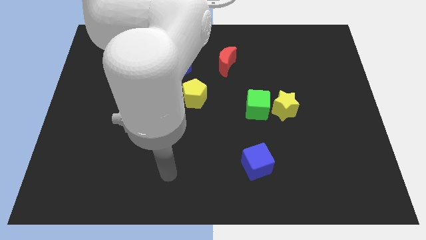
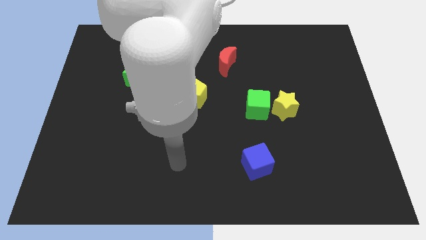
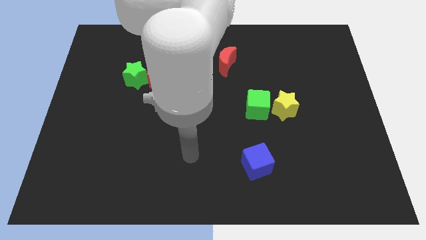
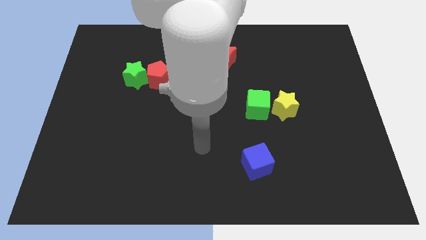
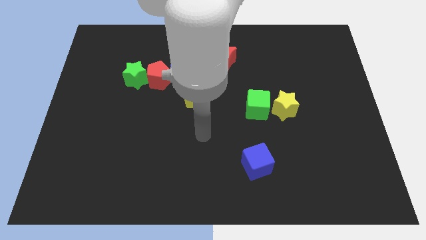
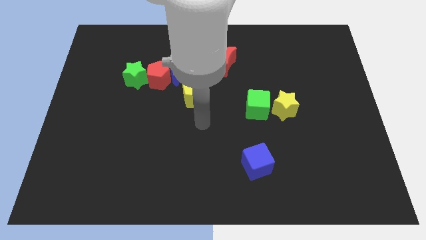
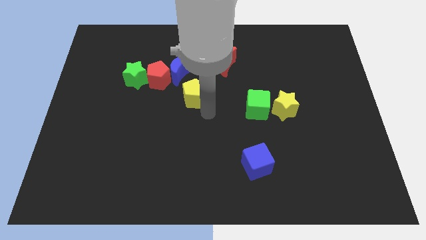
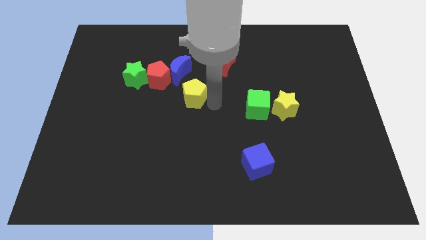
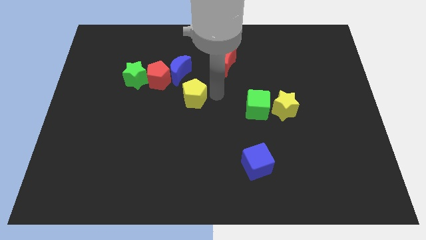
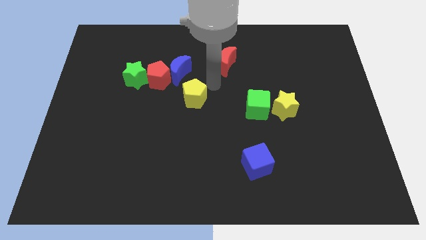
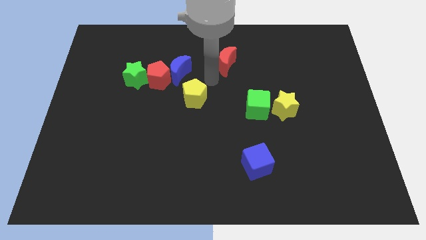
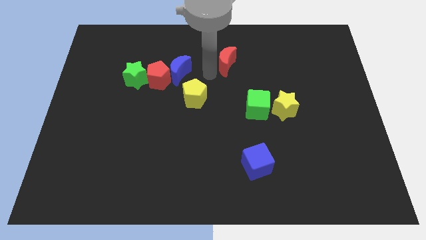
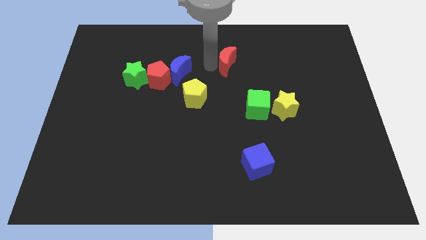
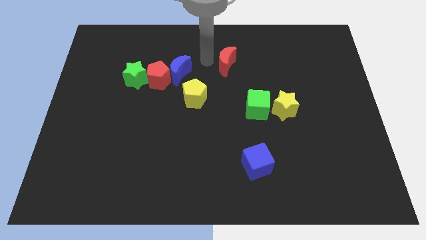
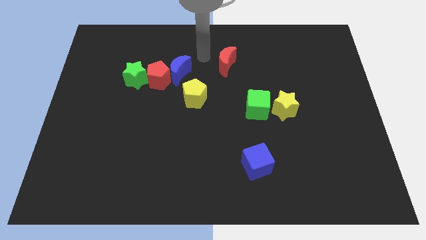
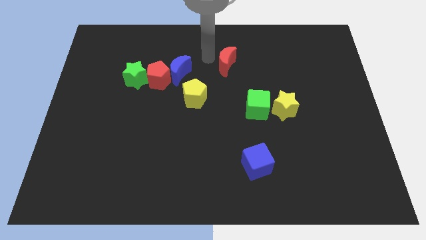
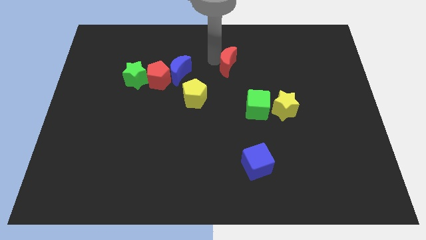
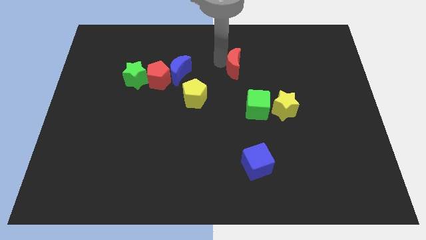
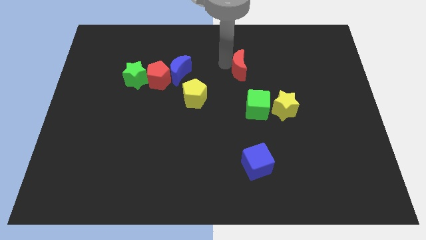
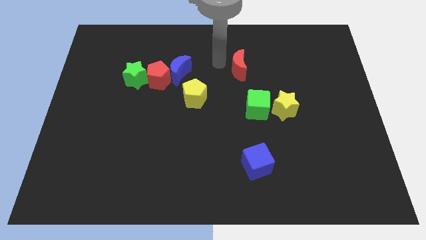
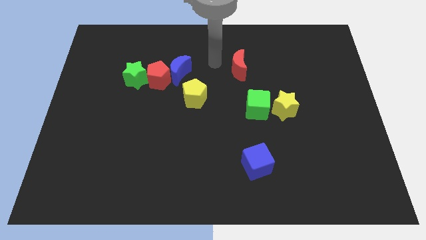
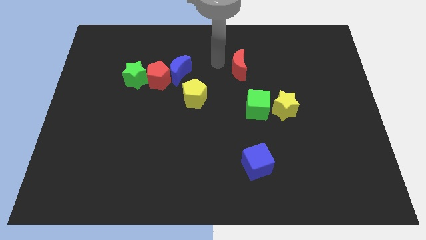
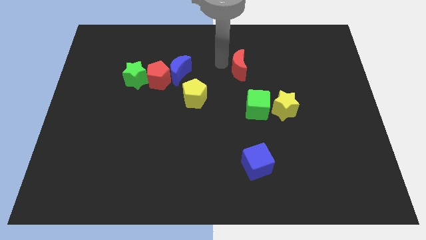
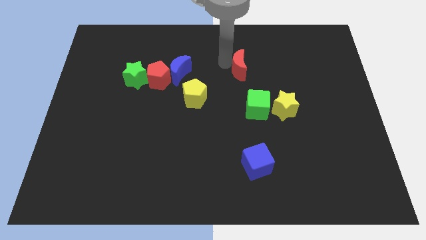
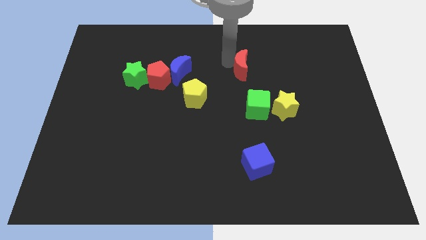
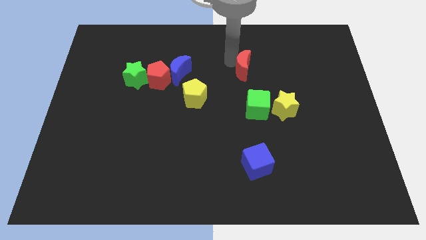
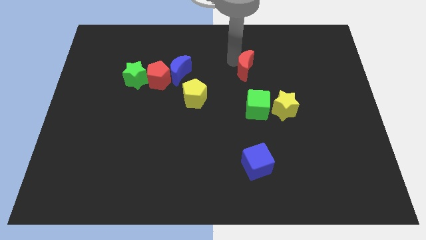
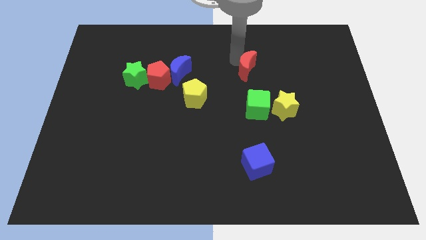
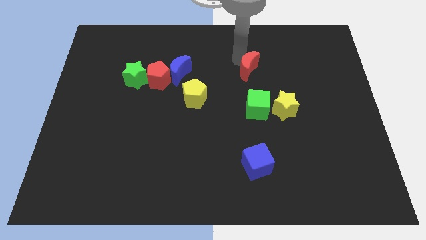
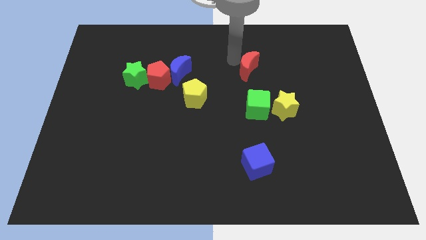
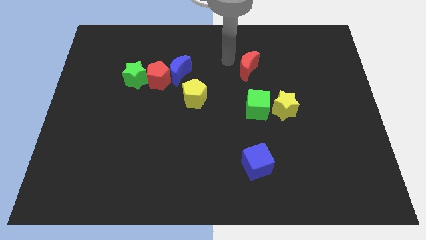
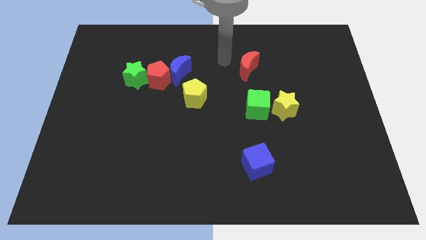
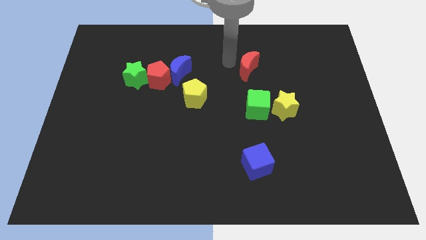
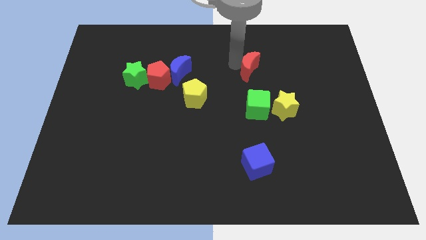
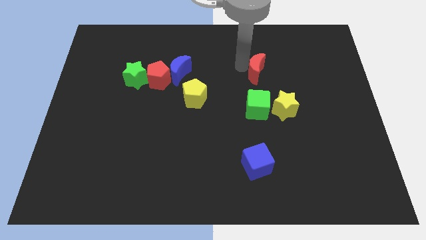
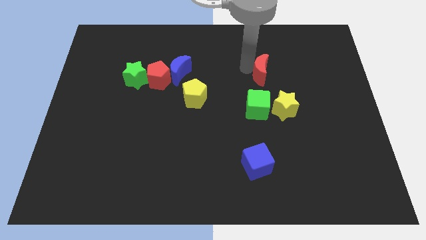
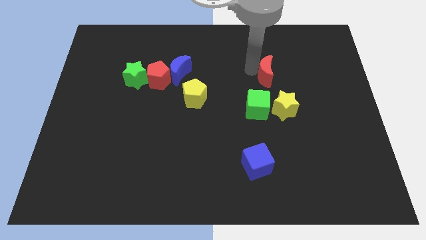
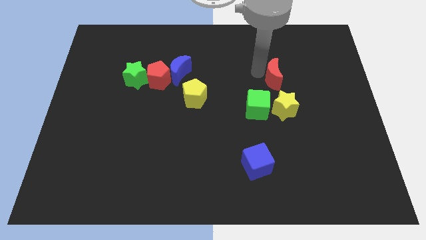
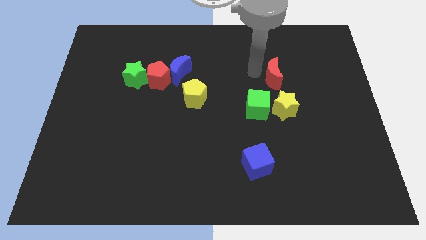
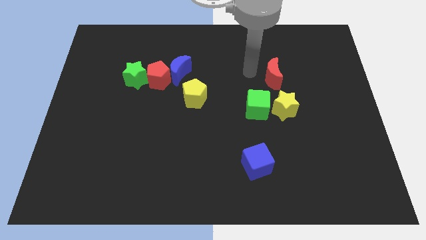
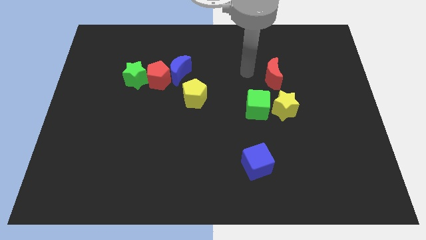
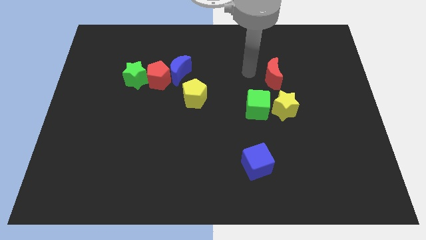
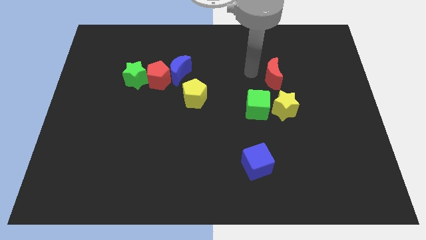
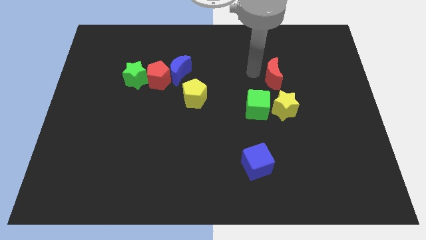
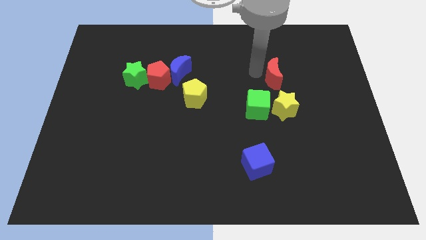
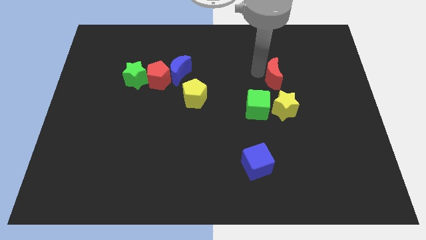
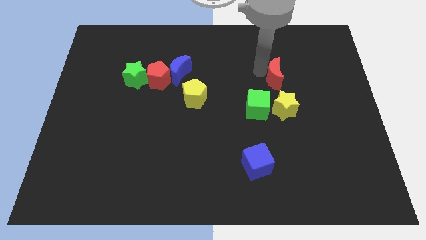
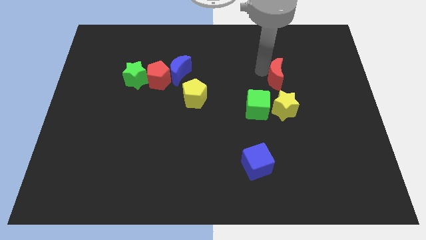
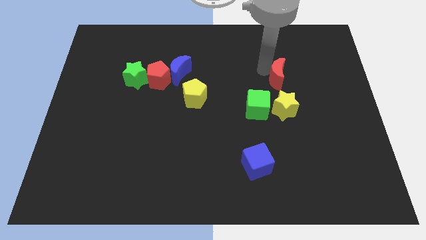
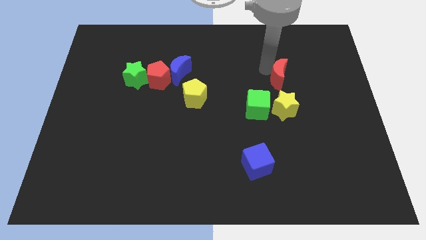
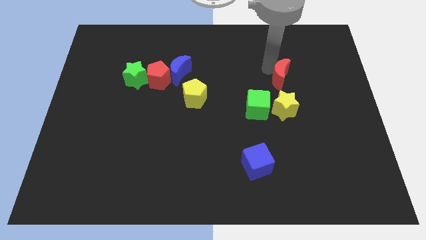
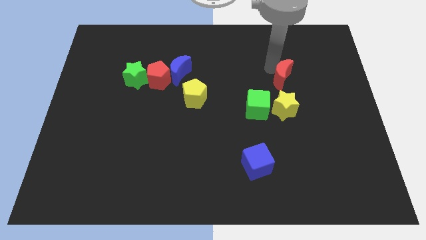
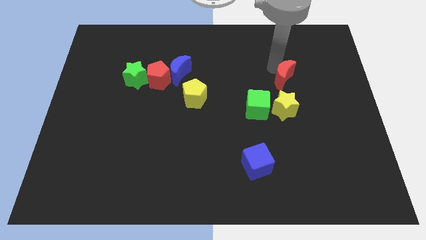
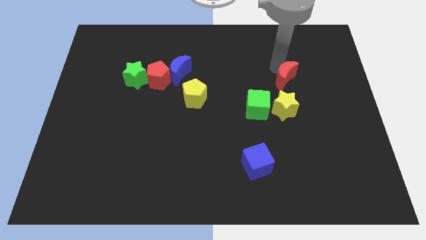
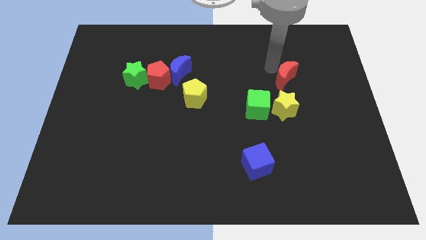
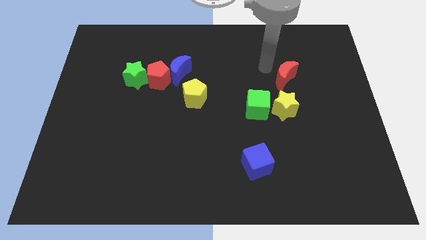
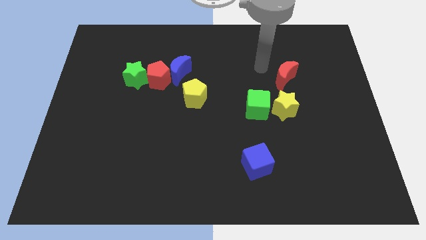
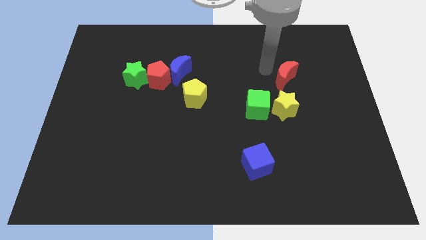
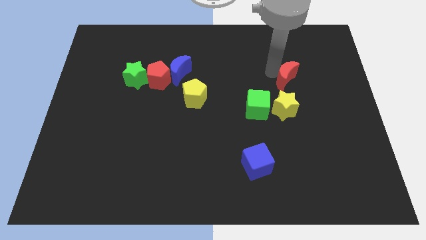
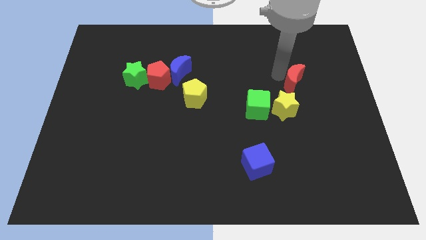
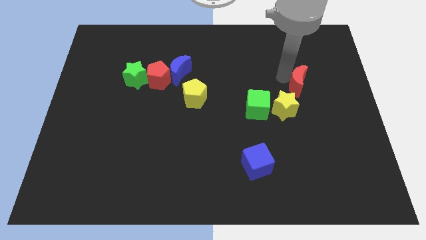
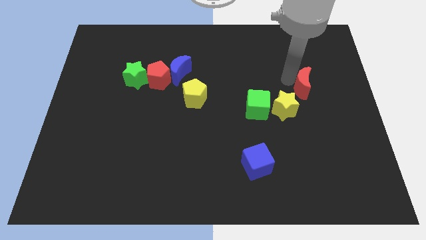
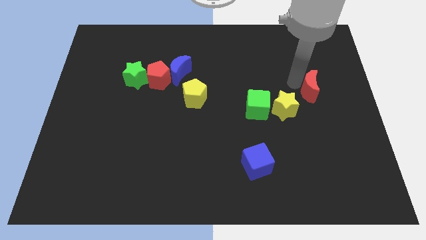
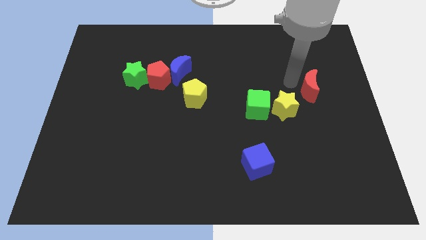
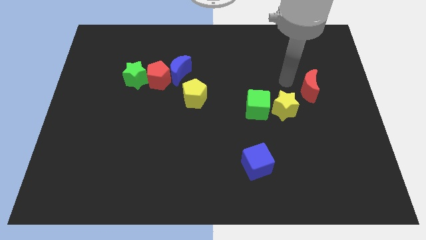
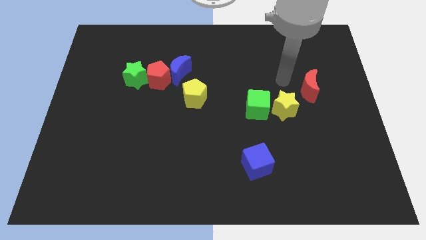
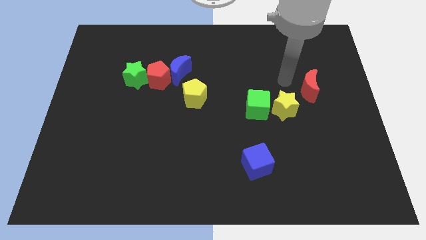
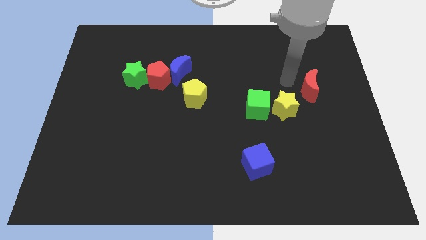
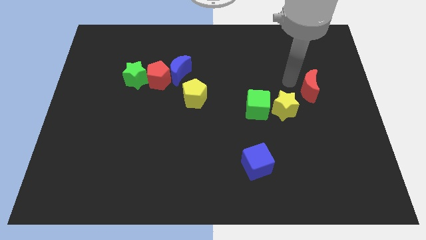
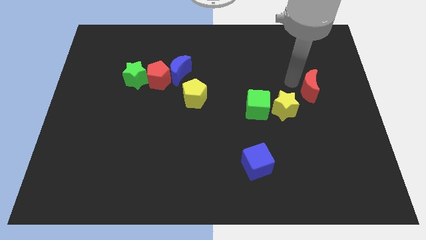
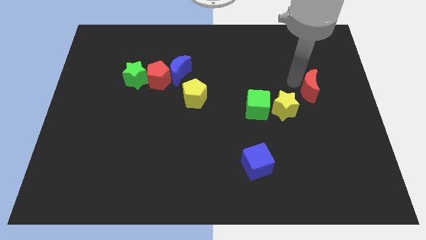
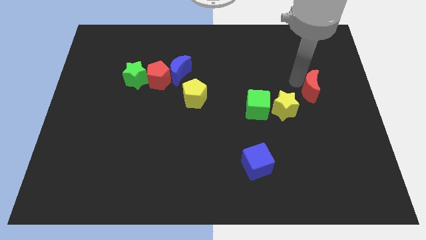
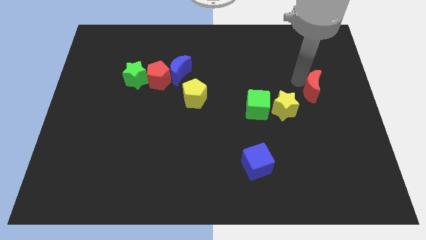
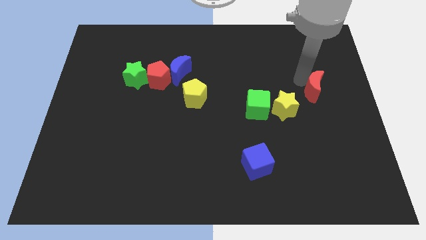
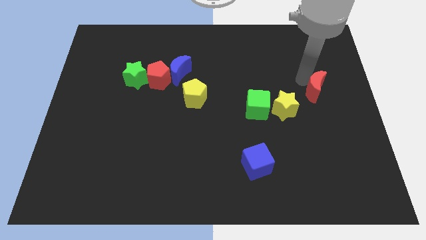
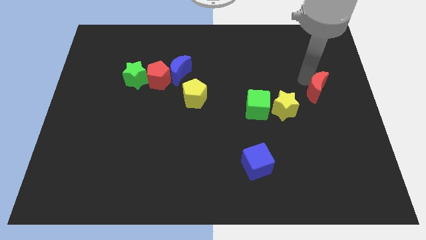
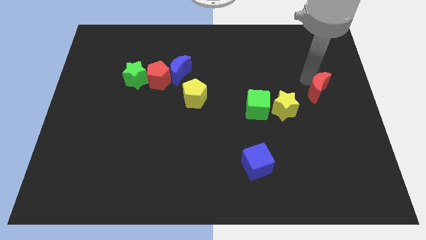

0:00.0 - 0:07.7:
push the red moon to the center right
